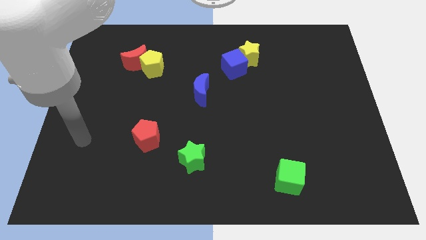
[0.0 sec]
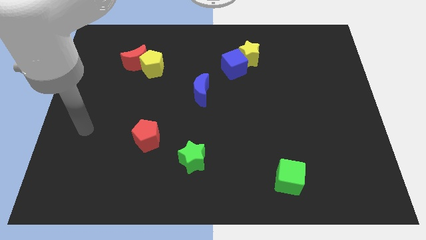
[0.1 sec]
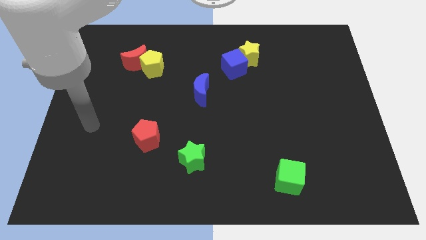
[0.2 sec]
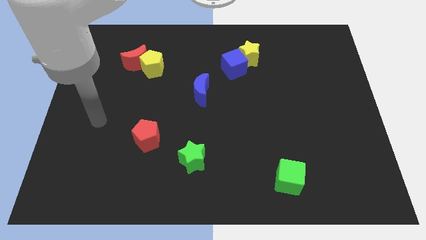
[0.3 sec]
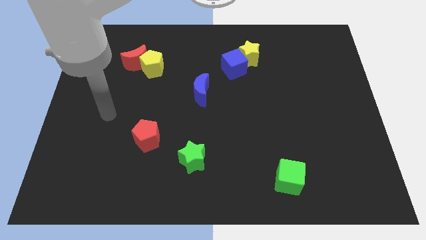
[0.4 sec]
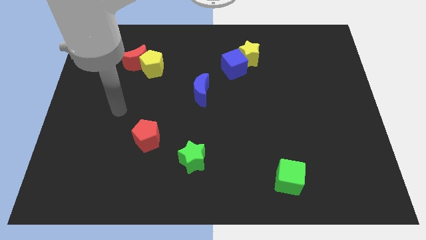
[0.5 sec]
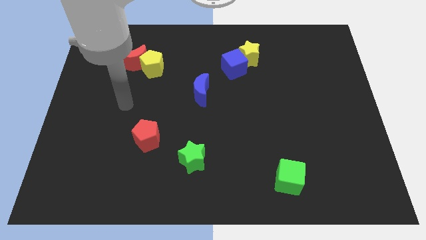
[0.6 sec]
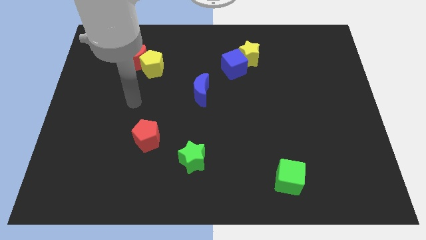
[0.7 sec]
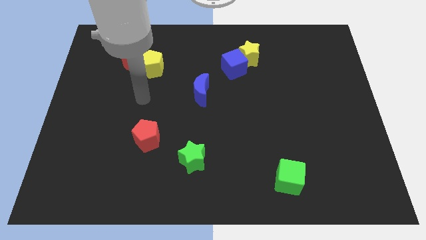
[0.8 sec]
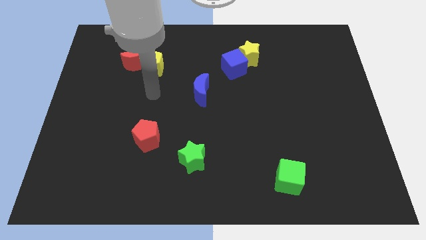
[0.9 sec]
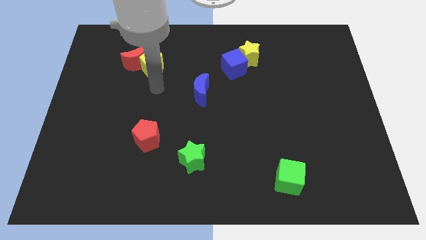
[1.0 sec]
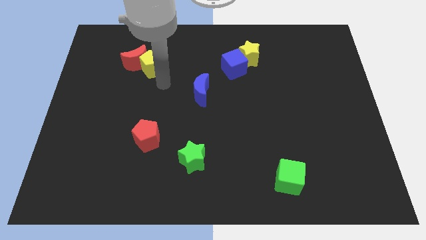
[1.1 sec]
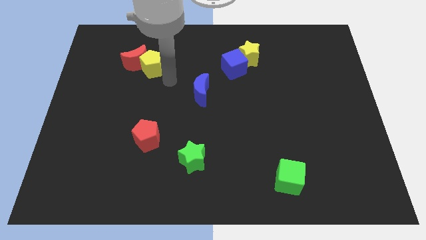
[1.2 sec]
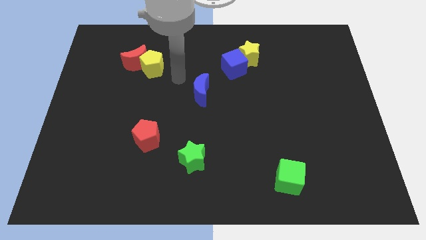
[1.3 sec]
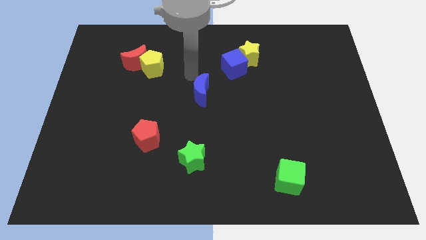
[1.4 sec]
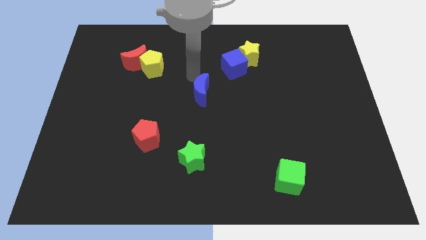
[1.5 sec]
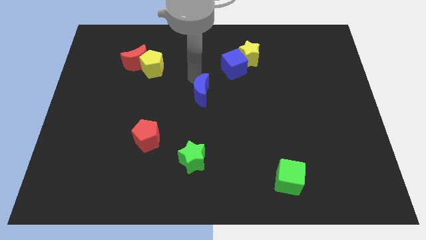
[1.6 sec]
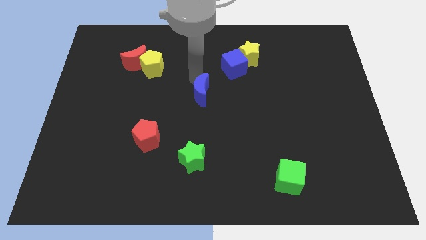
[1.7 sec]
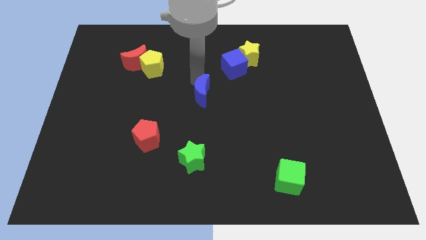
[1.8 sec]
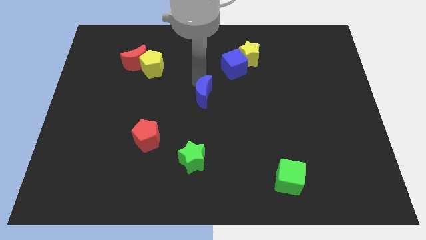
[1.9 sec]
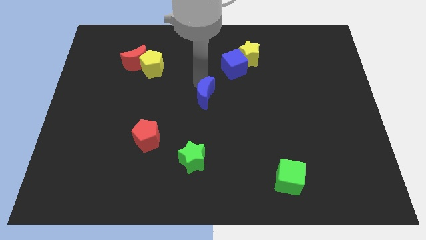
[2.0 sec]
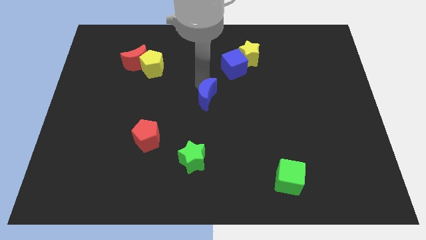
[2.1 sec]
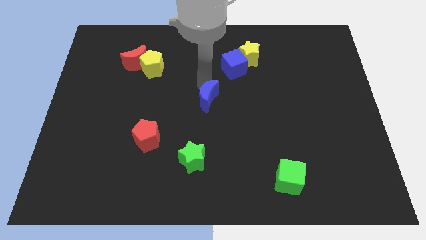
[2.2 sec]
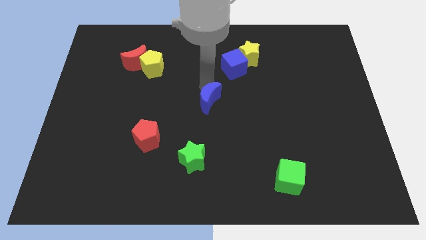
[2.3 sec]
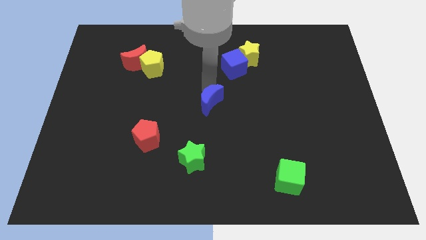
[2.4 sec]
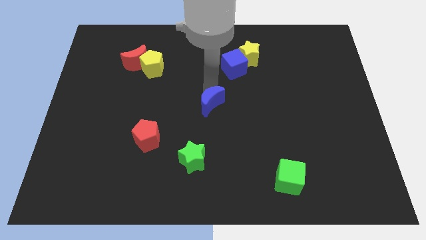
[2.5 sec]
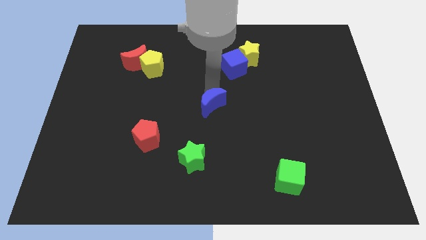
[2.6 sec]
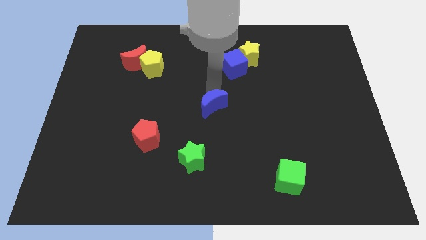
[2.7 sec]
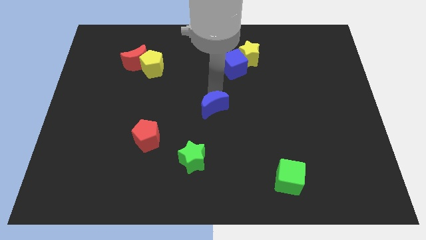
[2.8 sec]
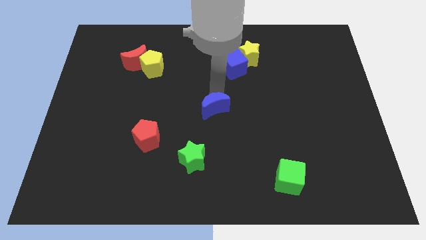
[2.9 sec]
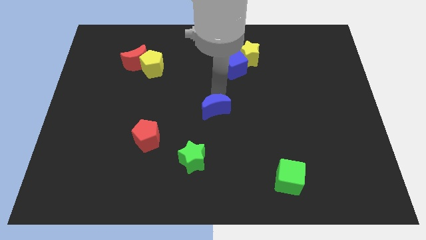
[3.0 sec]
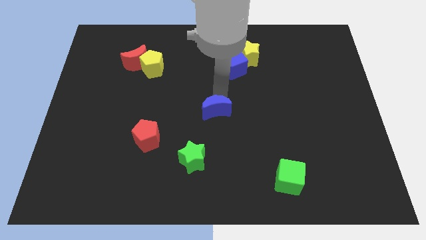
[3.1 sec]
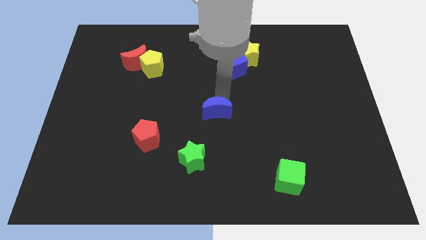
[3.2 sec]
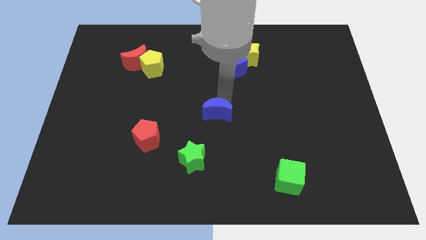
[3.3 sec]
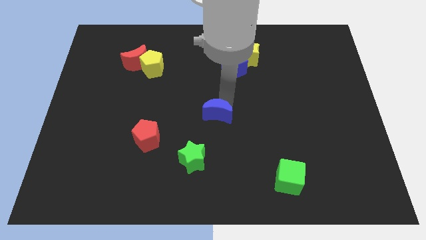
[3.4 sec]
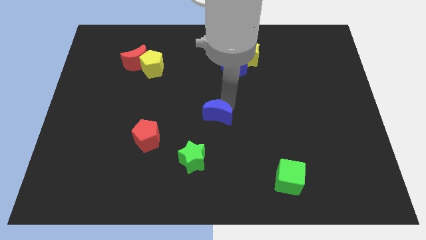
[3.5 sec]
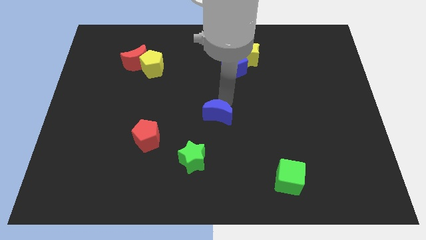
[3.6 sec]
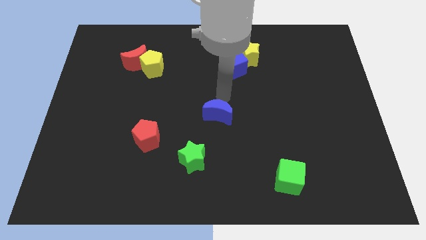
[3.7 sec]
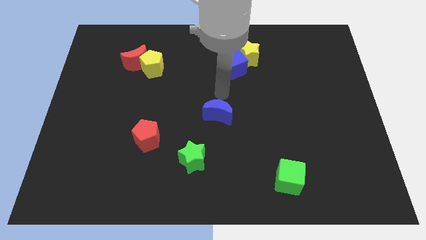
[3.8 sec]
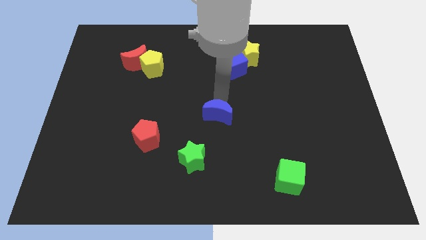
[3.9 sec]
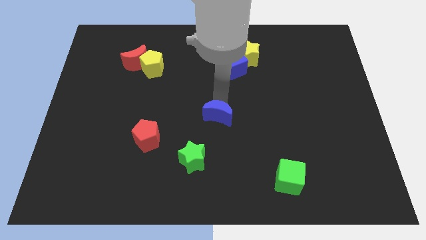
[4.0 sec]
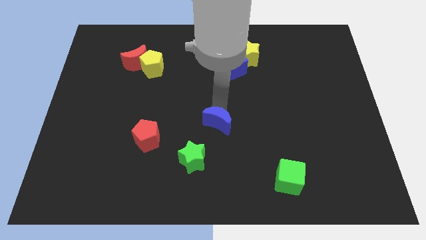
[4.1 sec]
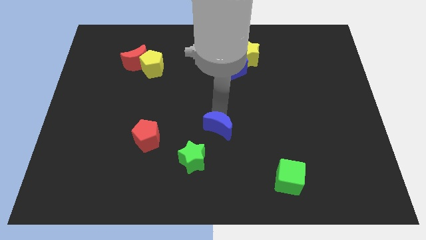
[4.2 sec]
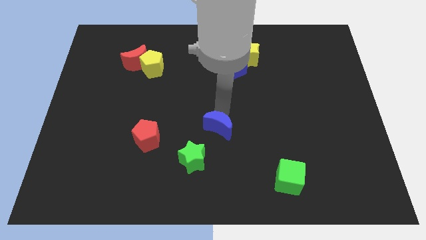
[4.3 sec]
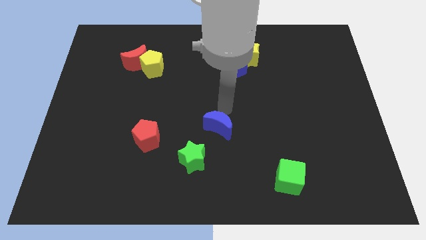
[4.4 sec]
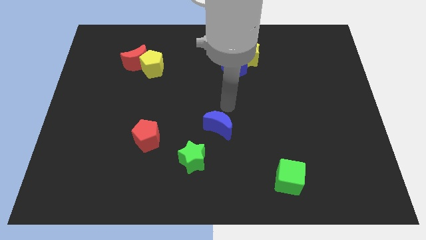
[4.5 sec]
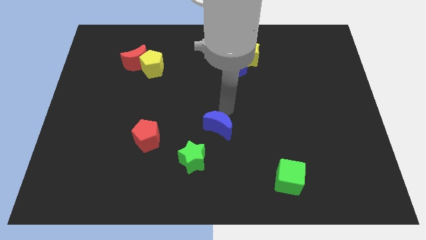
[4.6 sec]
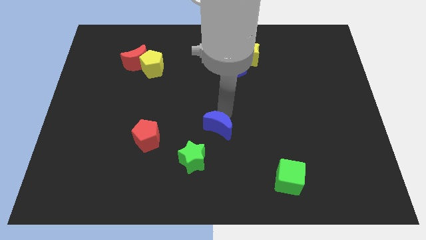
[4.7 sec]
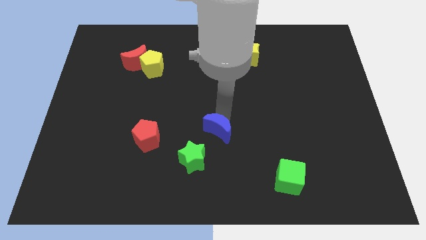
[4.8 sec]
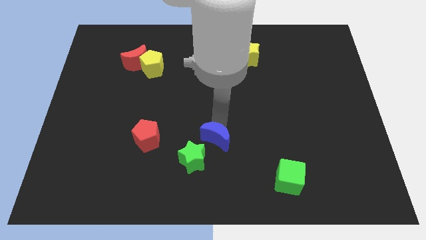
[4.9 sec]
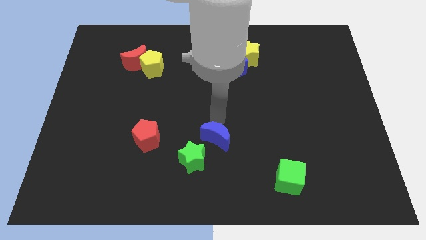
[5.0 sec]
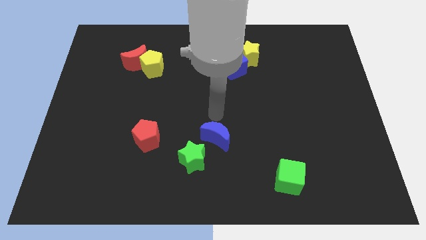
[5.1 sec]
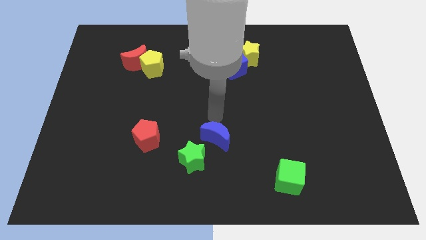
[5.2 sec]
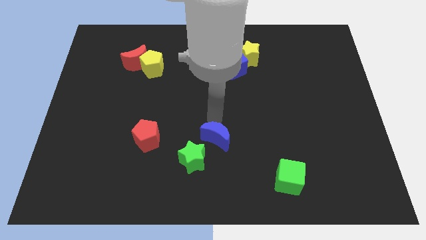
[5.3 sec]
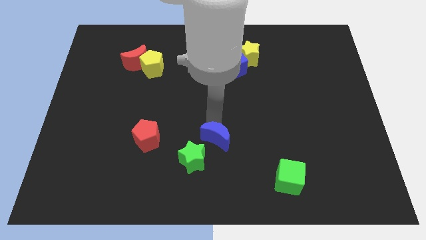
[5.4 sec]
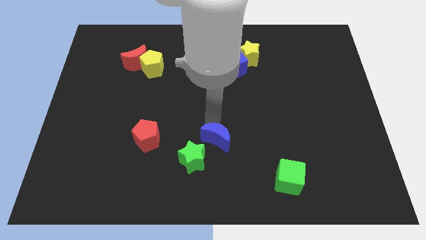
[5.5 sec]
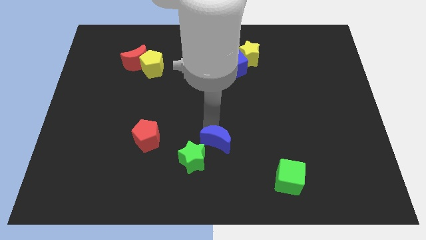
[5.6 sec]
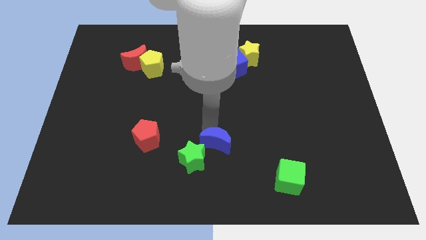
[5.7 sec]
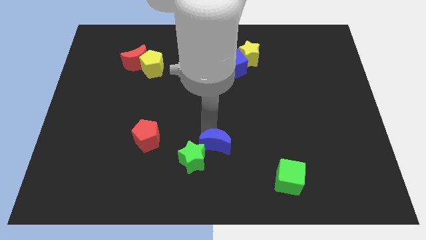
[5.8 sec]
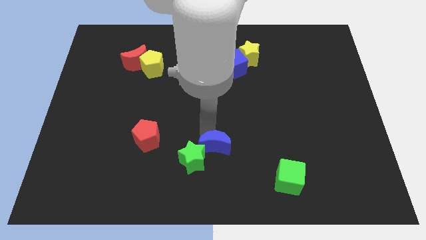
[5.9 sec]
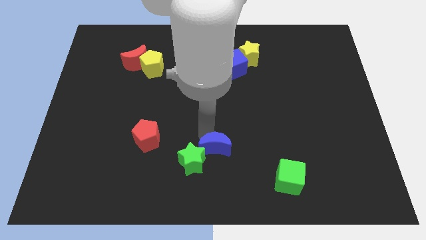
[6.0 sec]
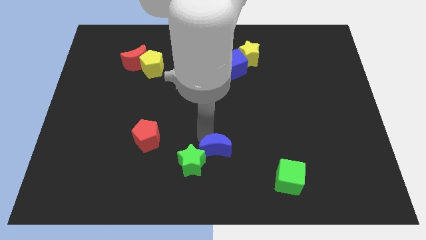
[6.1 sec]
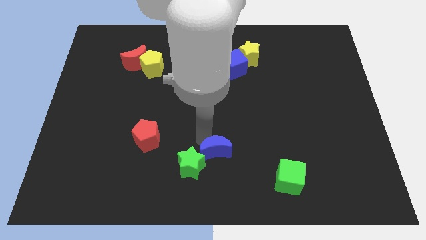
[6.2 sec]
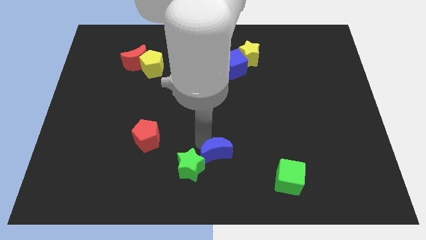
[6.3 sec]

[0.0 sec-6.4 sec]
move the blue moon to the bottom side
